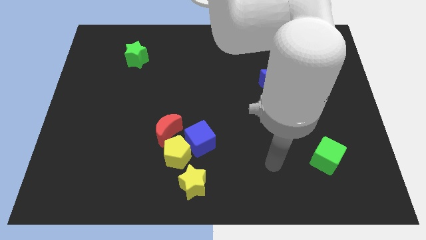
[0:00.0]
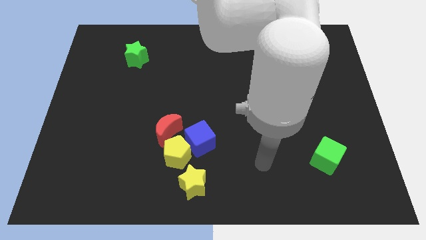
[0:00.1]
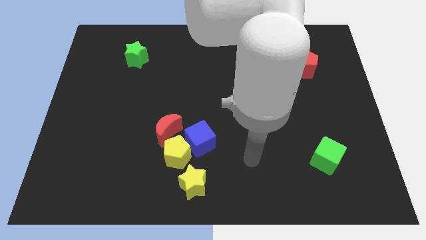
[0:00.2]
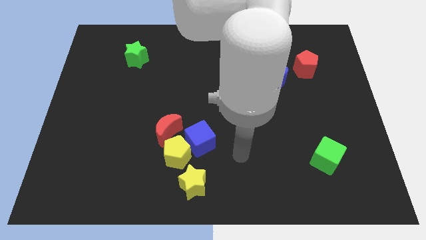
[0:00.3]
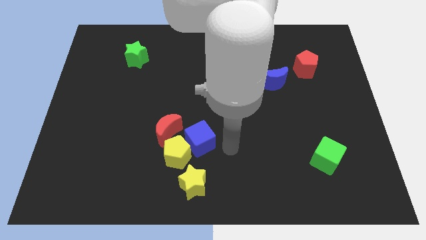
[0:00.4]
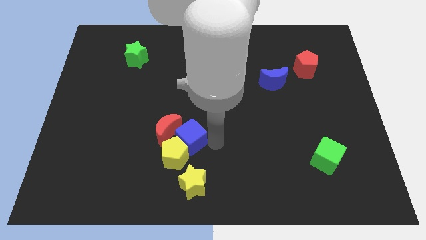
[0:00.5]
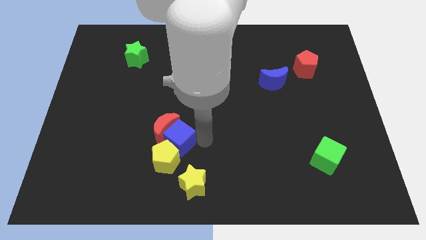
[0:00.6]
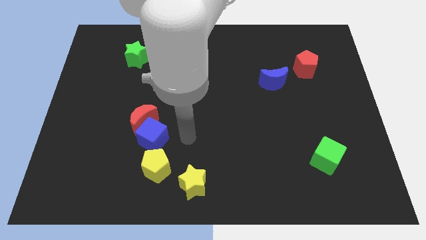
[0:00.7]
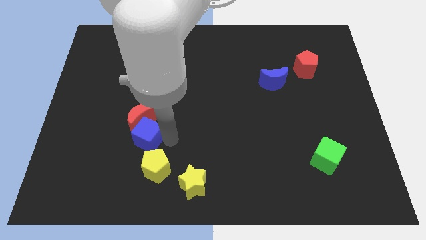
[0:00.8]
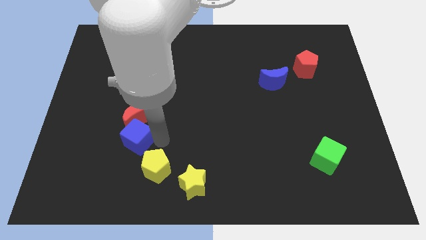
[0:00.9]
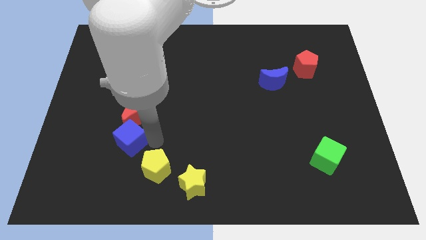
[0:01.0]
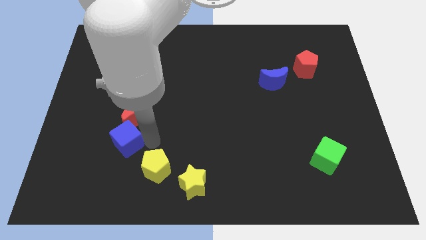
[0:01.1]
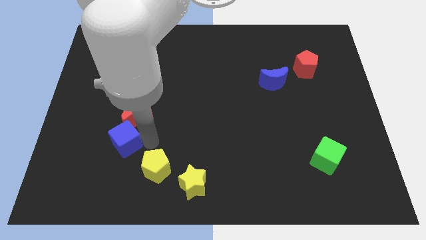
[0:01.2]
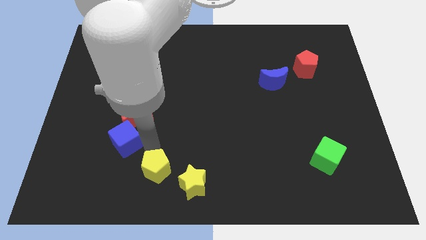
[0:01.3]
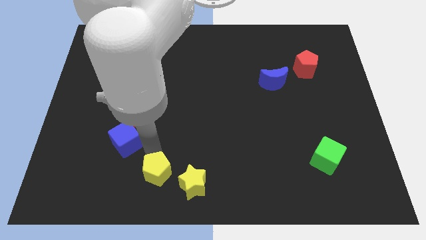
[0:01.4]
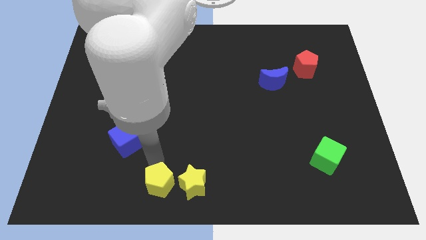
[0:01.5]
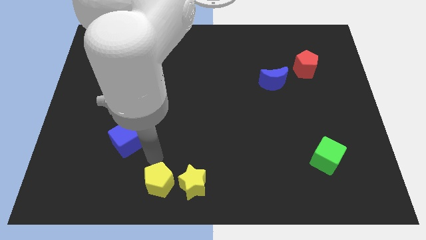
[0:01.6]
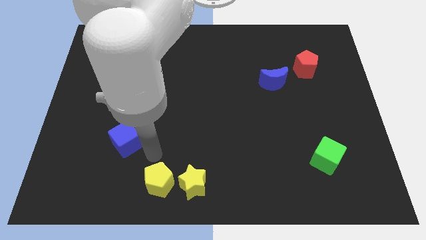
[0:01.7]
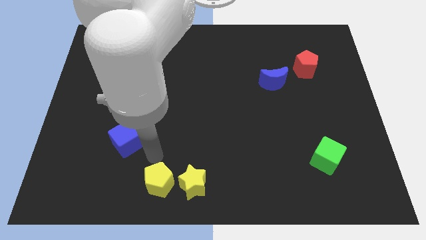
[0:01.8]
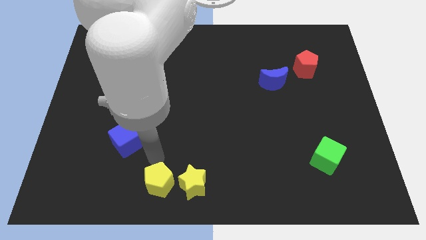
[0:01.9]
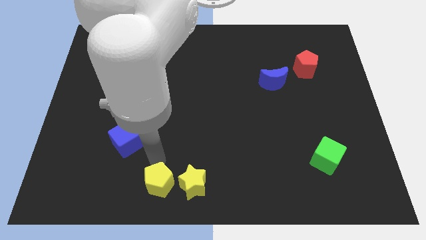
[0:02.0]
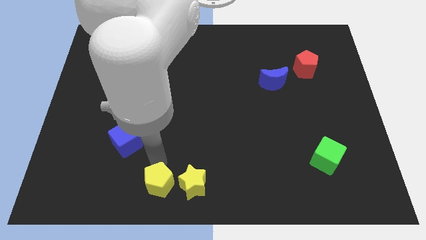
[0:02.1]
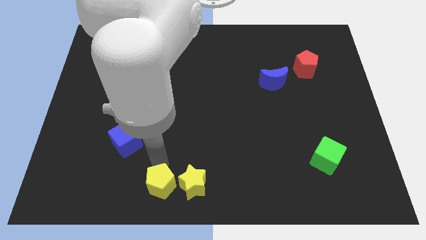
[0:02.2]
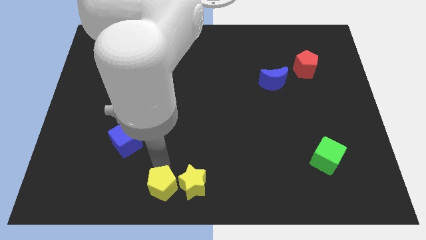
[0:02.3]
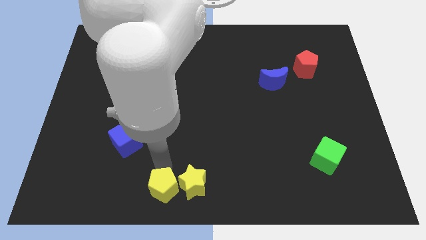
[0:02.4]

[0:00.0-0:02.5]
separate the yellow pentagon from the blue cube, red moon, and yellow star

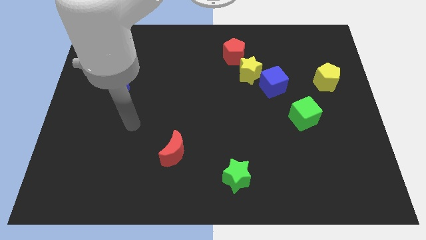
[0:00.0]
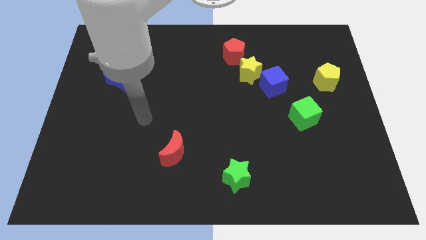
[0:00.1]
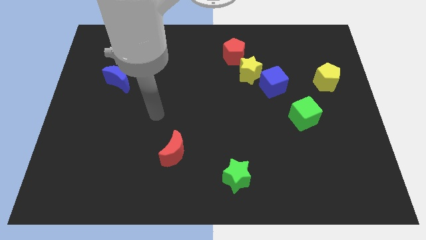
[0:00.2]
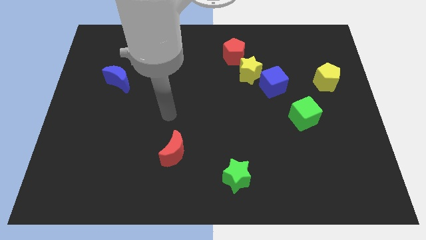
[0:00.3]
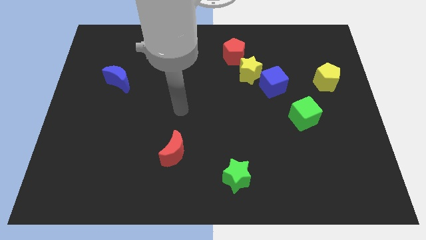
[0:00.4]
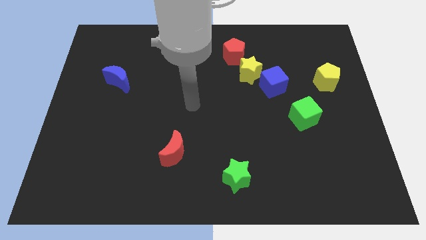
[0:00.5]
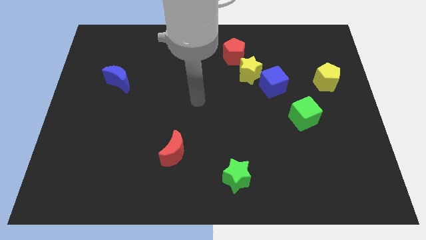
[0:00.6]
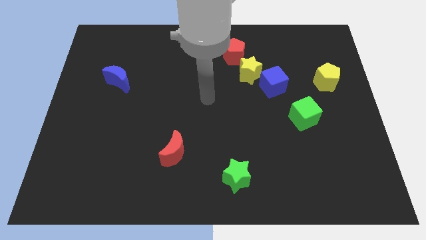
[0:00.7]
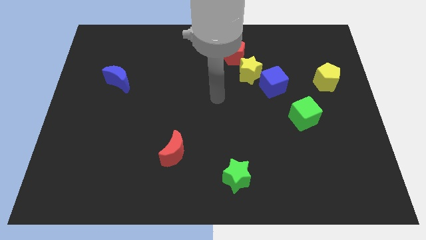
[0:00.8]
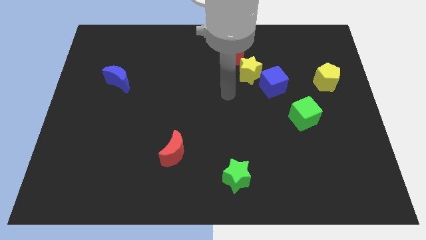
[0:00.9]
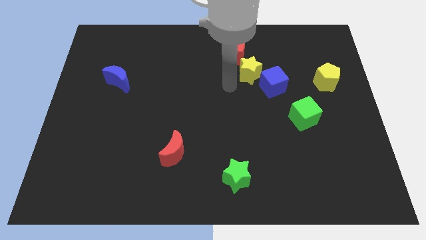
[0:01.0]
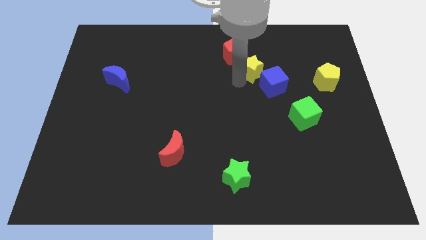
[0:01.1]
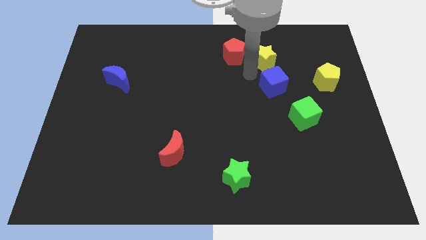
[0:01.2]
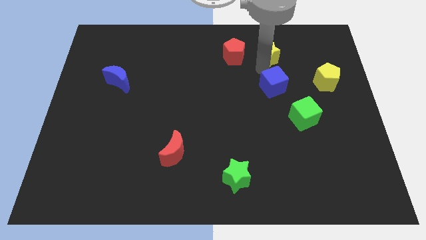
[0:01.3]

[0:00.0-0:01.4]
pull the blue cube apart from the yellow star

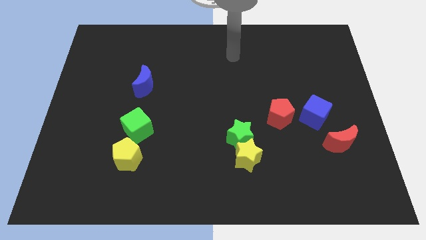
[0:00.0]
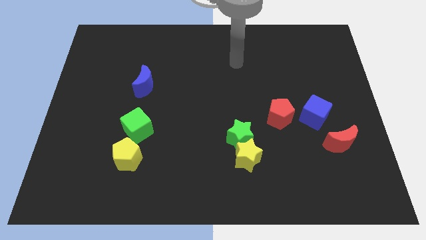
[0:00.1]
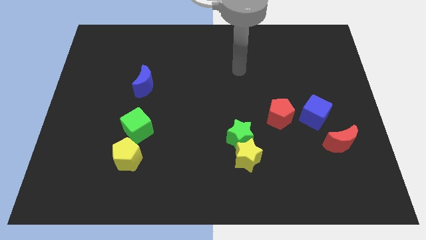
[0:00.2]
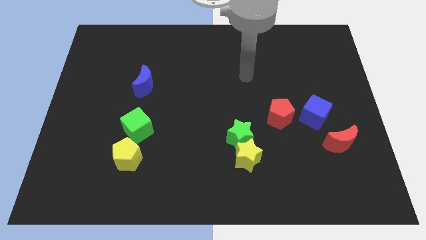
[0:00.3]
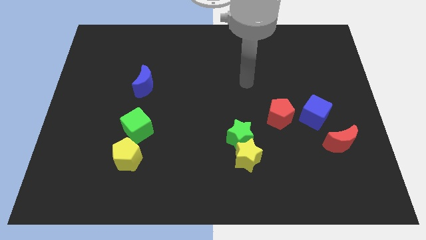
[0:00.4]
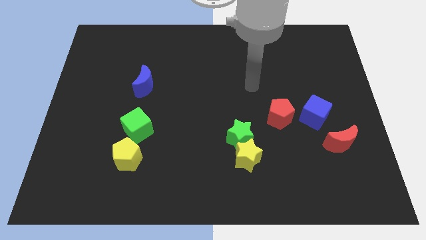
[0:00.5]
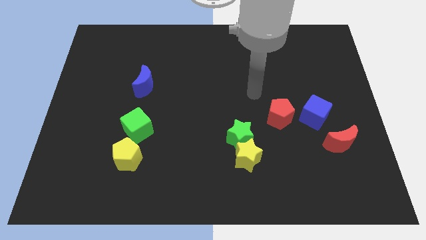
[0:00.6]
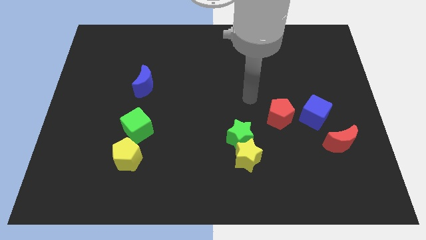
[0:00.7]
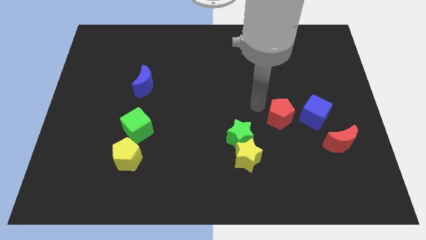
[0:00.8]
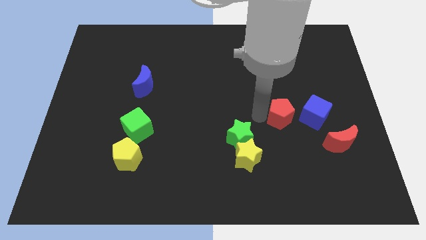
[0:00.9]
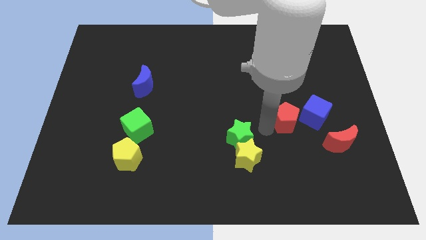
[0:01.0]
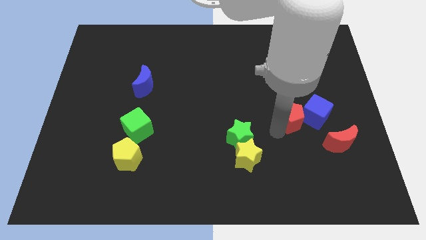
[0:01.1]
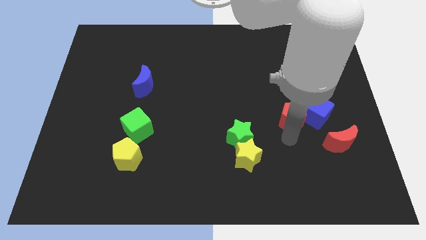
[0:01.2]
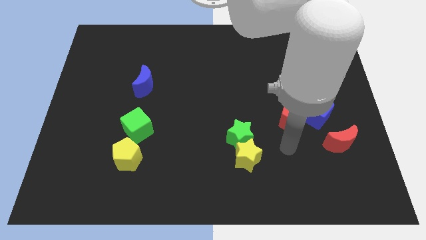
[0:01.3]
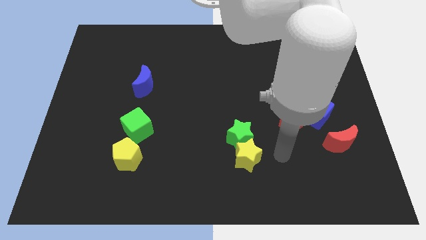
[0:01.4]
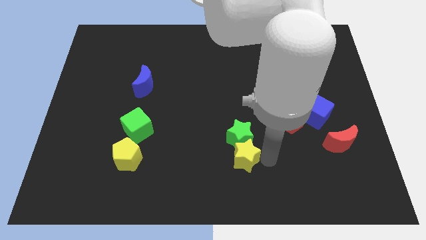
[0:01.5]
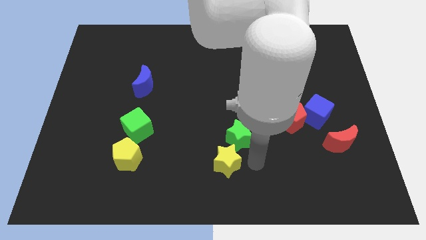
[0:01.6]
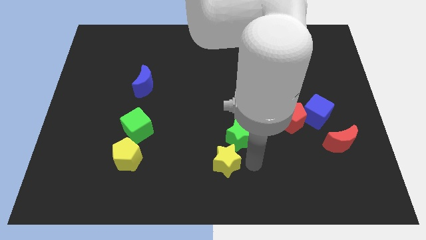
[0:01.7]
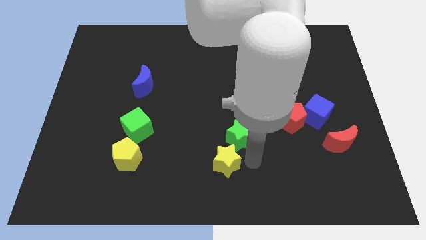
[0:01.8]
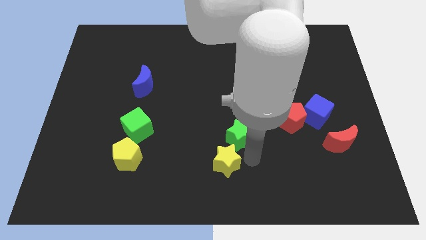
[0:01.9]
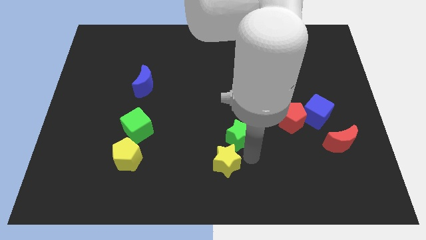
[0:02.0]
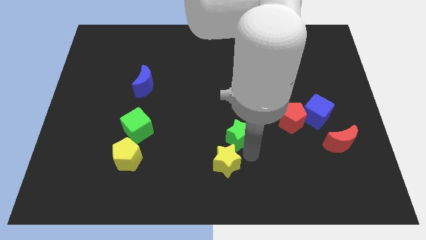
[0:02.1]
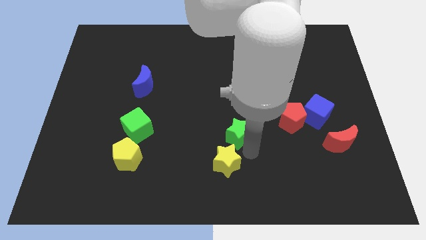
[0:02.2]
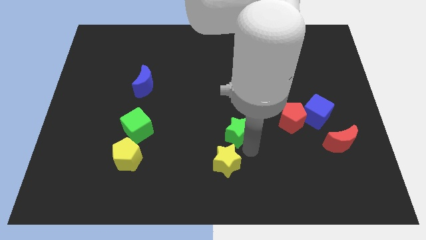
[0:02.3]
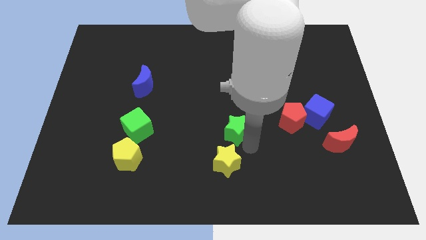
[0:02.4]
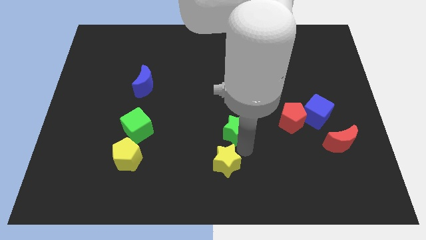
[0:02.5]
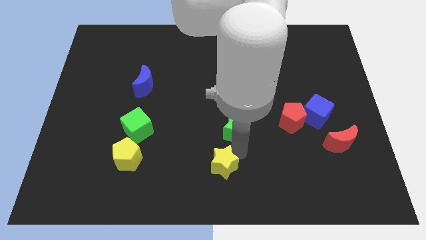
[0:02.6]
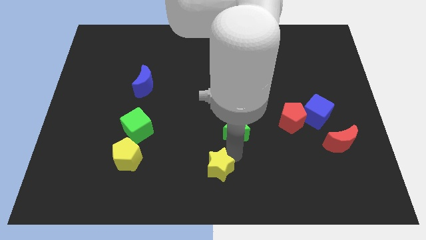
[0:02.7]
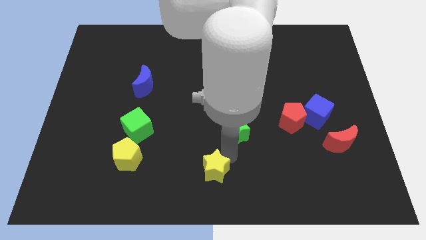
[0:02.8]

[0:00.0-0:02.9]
separate the green star from the yellow star

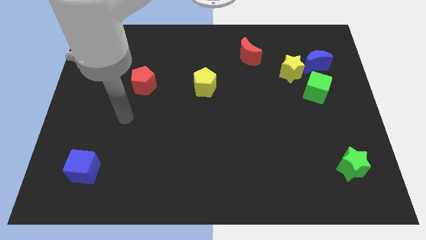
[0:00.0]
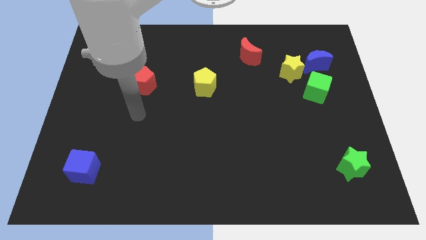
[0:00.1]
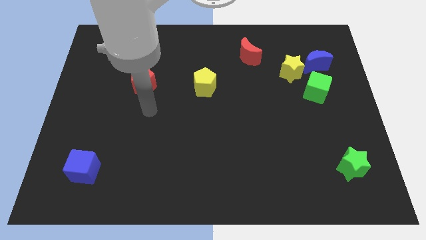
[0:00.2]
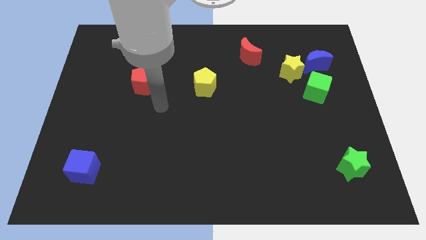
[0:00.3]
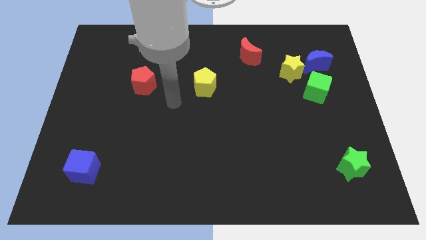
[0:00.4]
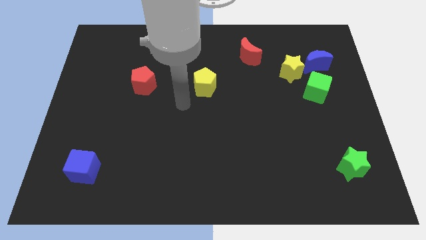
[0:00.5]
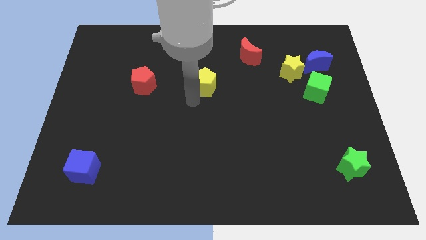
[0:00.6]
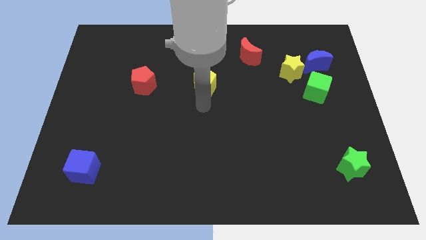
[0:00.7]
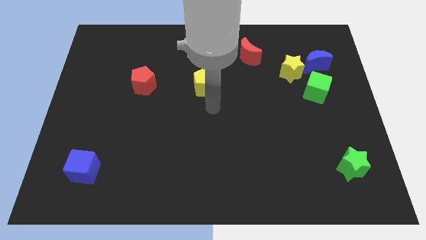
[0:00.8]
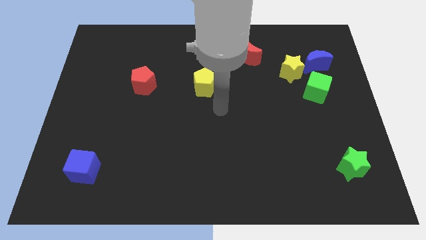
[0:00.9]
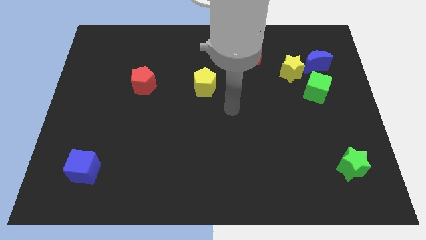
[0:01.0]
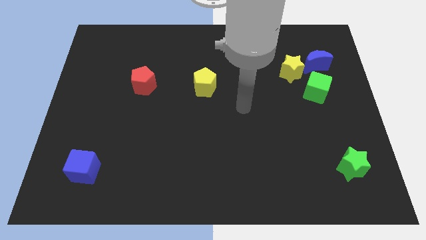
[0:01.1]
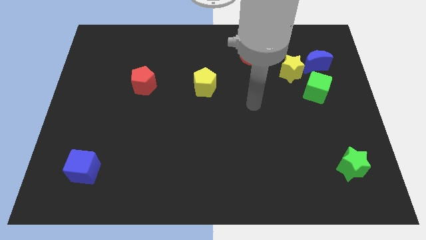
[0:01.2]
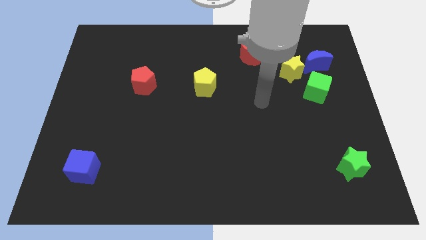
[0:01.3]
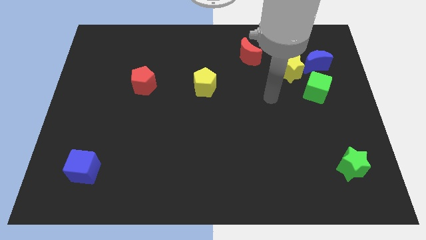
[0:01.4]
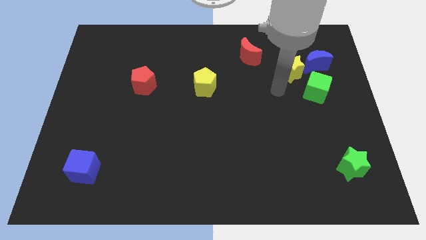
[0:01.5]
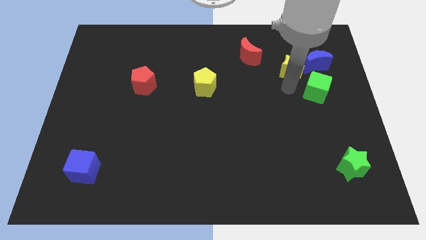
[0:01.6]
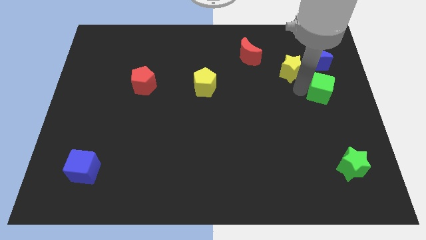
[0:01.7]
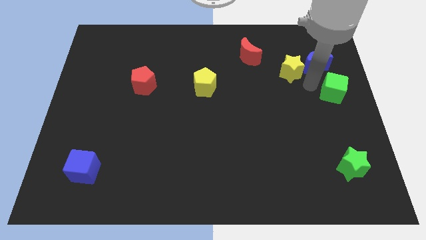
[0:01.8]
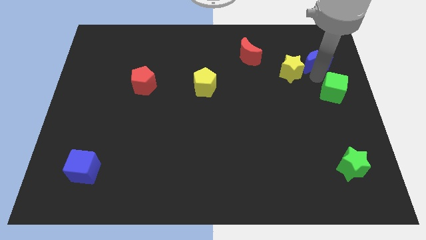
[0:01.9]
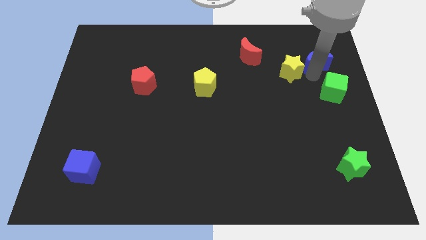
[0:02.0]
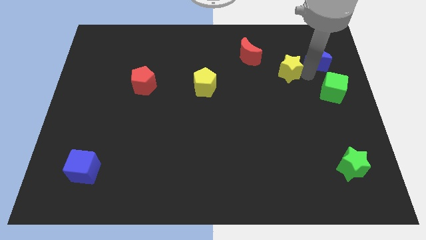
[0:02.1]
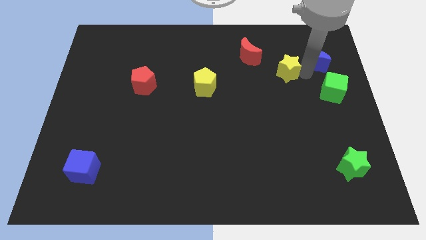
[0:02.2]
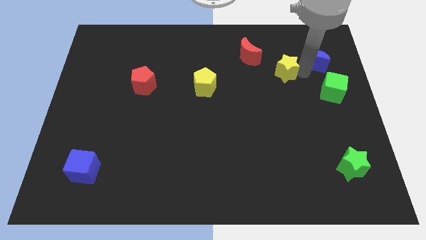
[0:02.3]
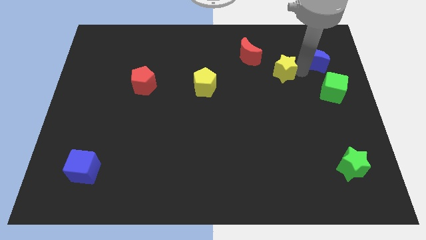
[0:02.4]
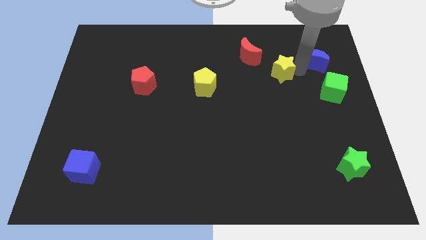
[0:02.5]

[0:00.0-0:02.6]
move the yellow star away from the blue moon and green cube
